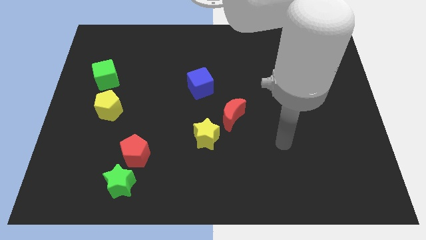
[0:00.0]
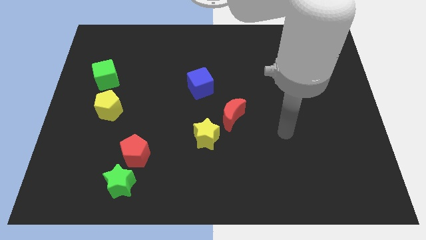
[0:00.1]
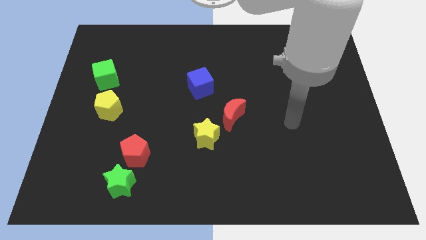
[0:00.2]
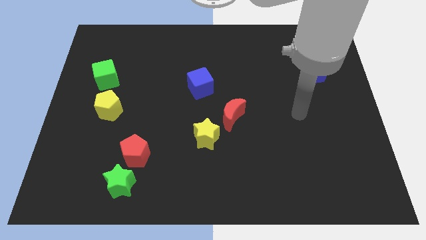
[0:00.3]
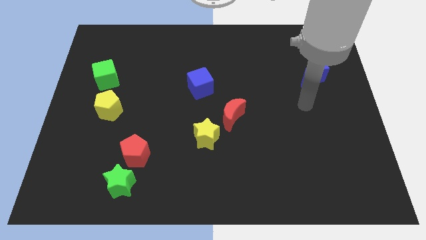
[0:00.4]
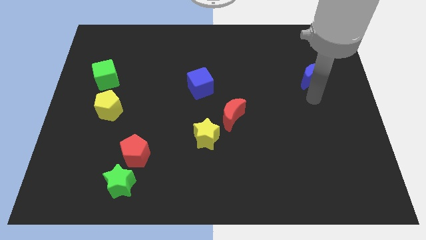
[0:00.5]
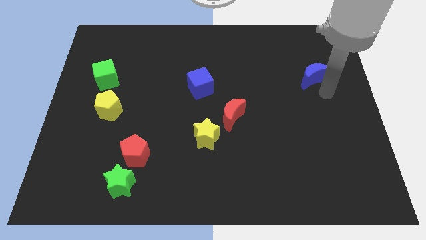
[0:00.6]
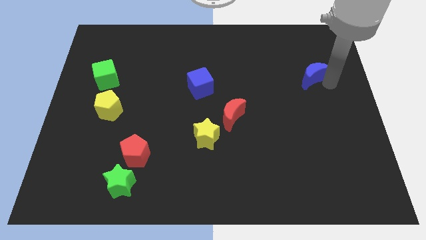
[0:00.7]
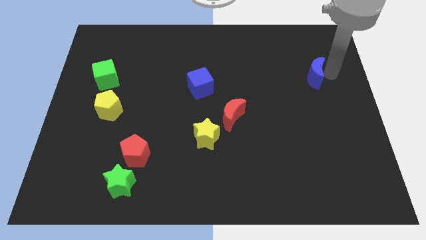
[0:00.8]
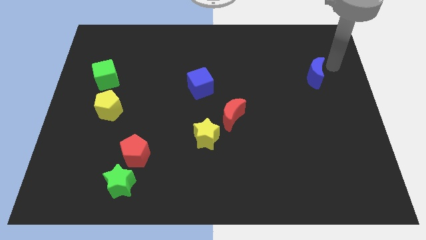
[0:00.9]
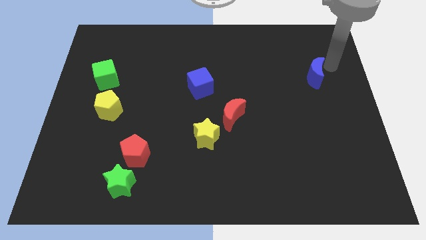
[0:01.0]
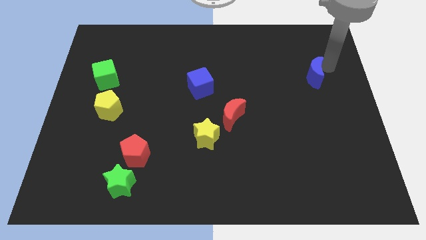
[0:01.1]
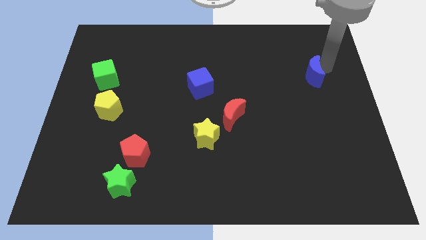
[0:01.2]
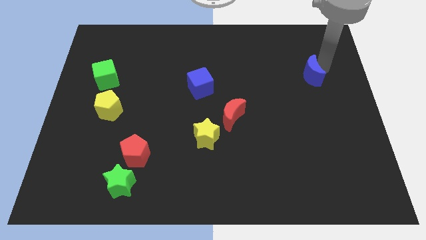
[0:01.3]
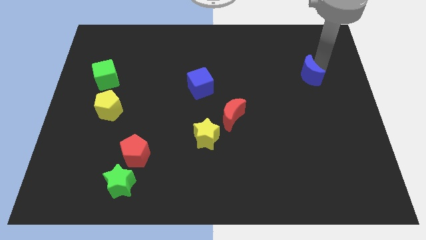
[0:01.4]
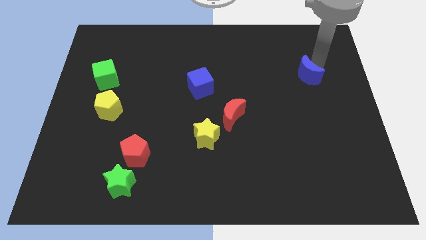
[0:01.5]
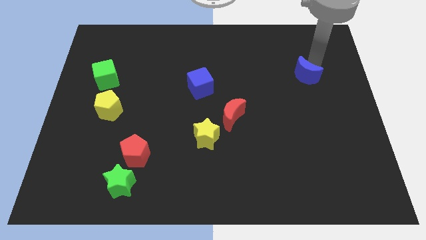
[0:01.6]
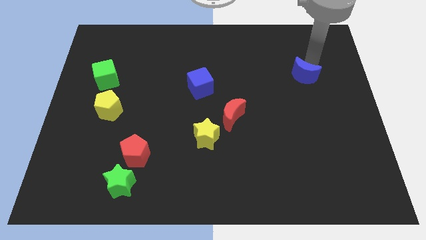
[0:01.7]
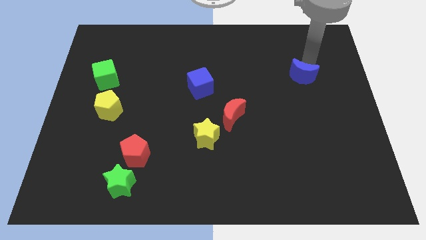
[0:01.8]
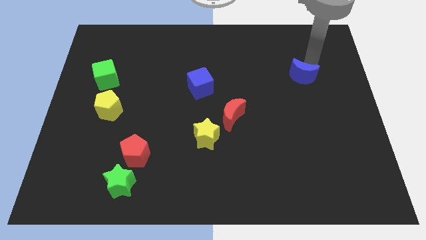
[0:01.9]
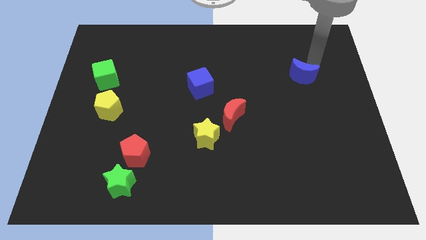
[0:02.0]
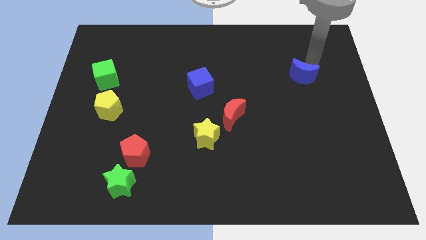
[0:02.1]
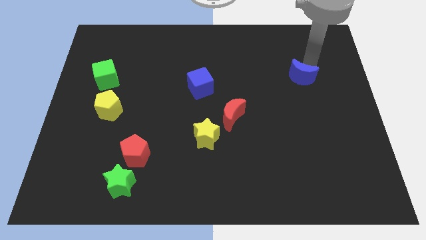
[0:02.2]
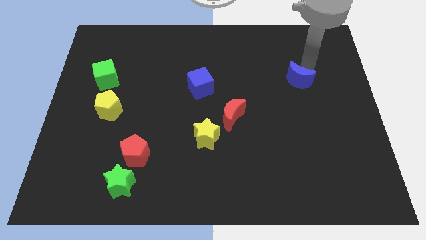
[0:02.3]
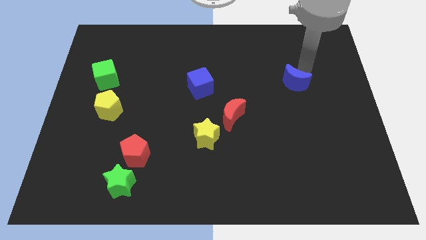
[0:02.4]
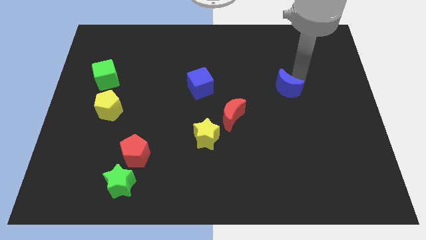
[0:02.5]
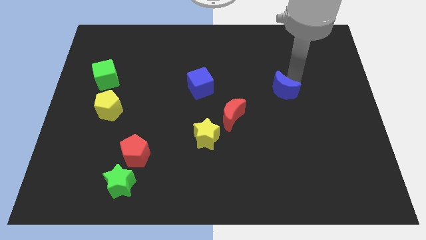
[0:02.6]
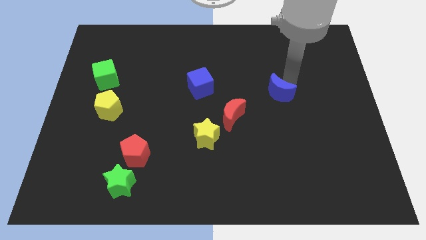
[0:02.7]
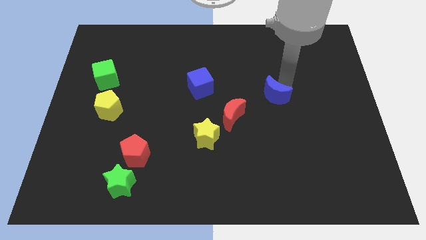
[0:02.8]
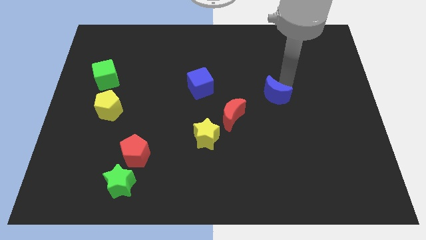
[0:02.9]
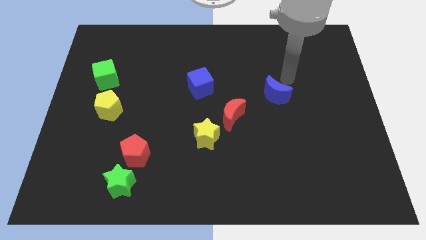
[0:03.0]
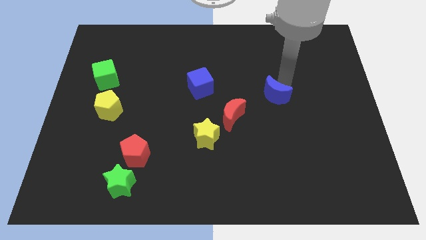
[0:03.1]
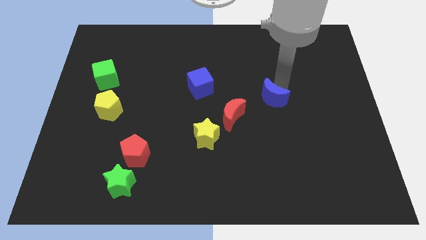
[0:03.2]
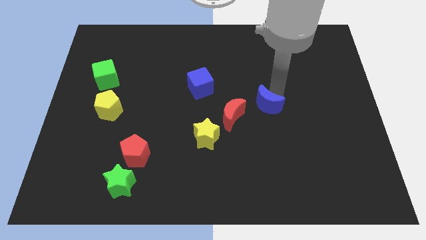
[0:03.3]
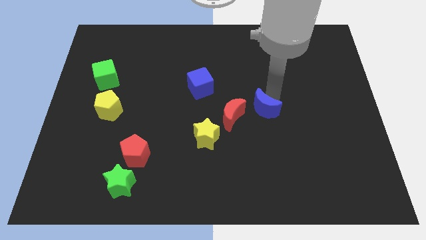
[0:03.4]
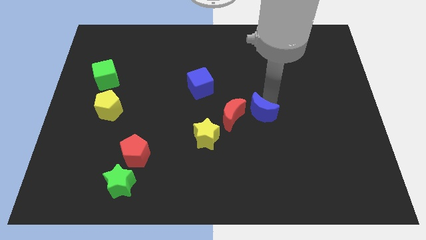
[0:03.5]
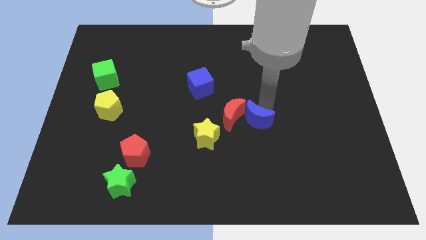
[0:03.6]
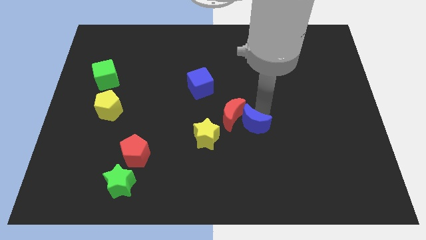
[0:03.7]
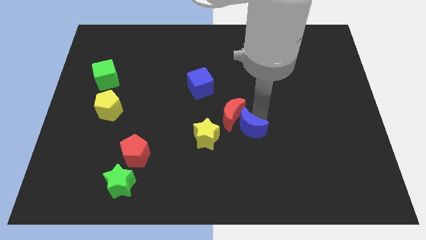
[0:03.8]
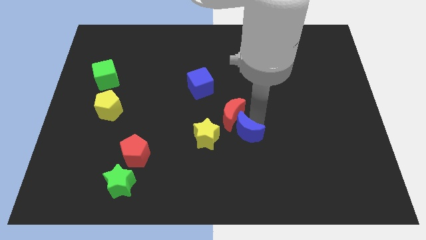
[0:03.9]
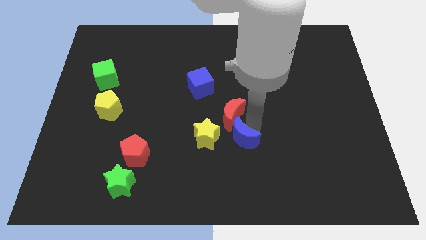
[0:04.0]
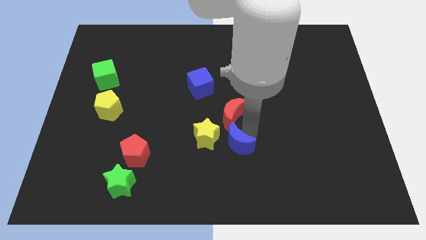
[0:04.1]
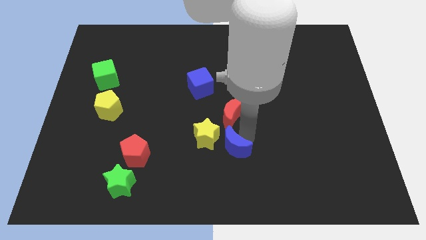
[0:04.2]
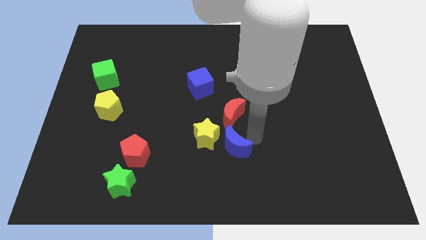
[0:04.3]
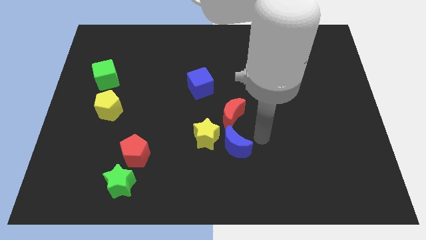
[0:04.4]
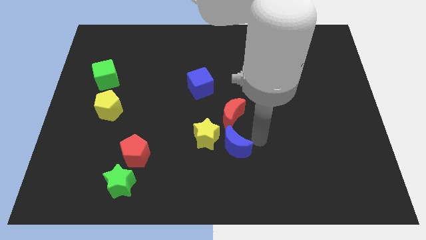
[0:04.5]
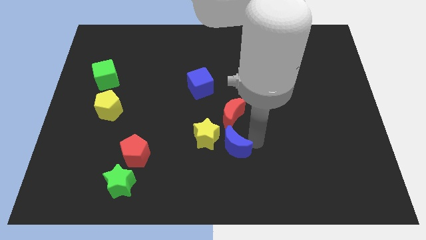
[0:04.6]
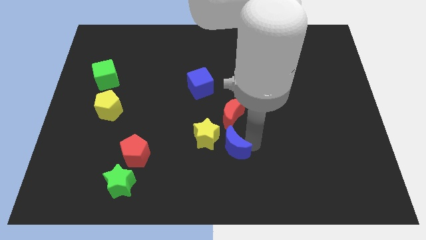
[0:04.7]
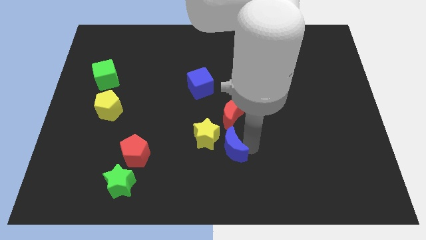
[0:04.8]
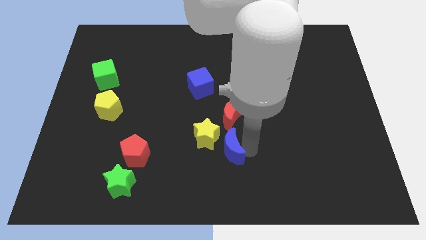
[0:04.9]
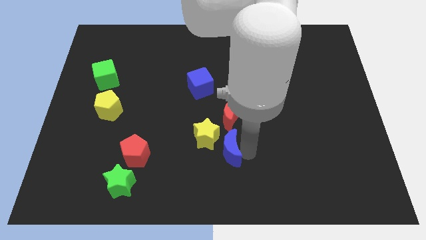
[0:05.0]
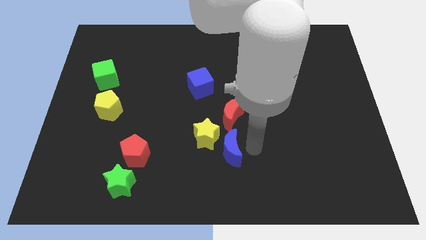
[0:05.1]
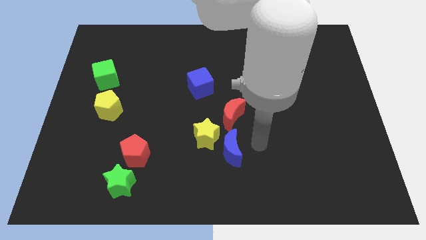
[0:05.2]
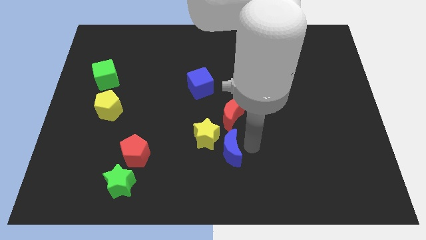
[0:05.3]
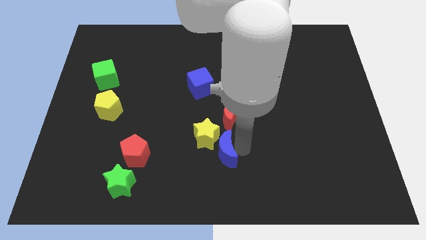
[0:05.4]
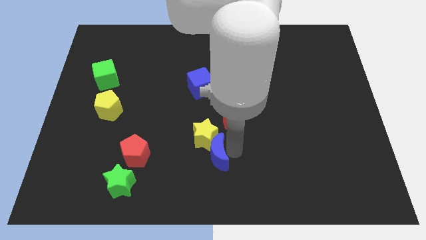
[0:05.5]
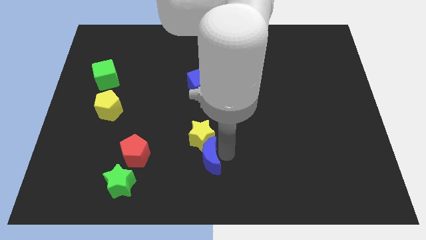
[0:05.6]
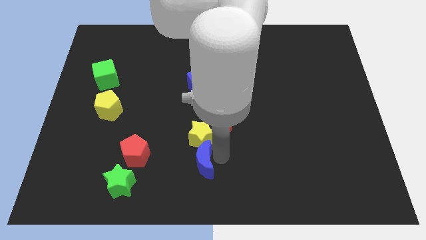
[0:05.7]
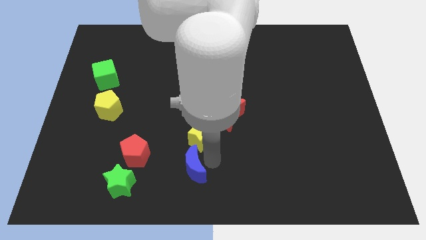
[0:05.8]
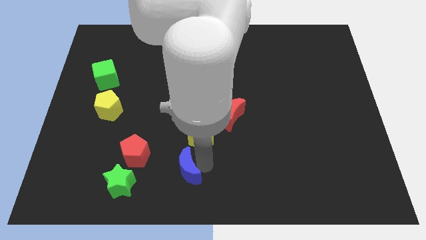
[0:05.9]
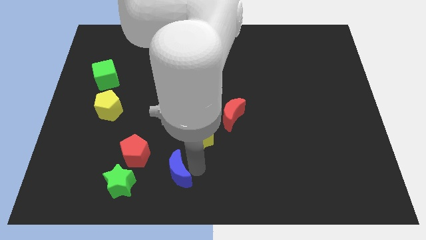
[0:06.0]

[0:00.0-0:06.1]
slide the blue moon diagonally down and to the right of the red pentagon
